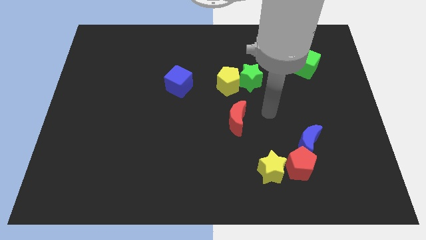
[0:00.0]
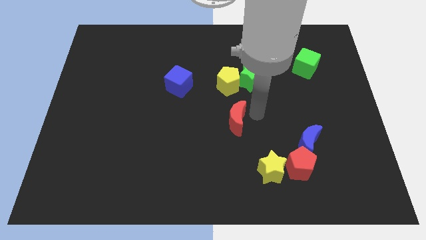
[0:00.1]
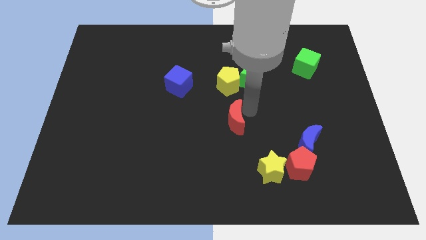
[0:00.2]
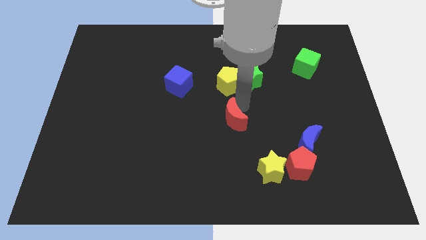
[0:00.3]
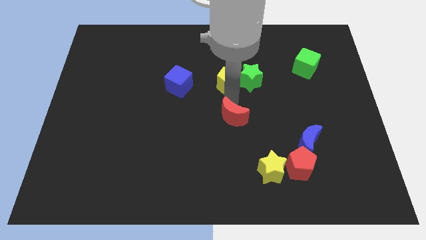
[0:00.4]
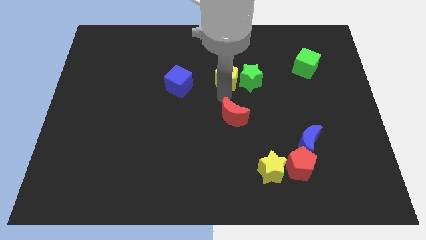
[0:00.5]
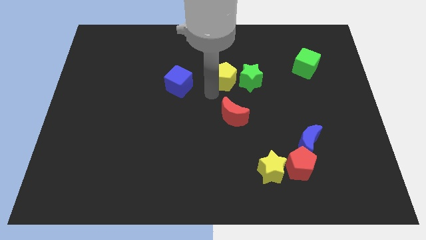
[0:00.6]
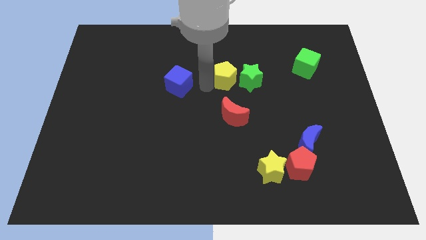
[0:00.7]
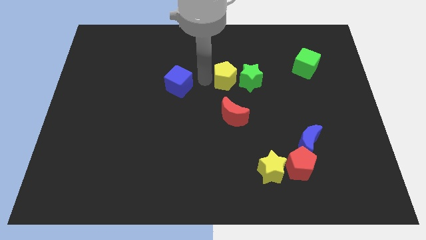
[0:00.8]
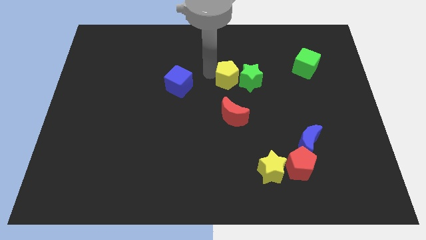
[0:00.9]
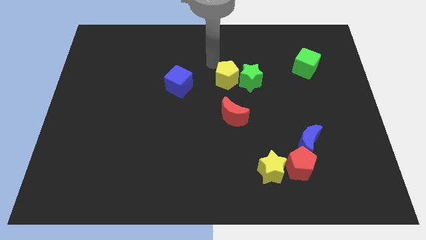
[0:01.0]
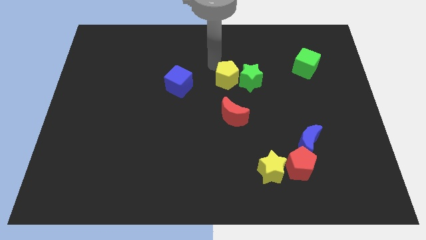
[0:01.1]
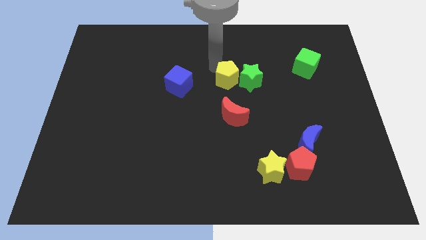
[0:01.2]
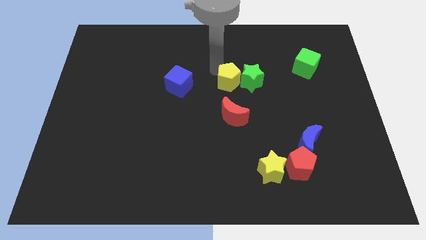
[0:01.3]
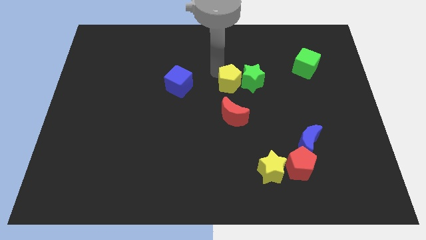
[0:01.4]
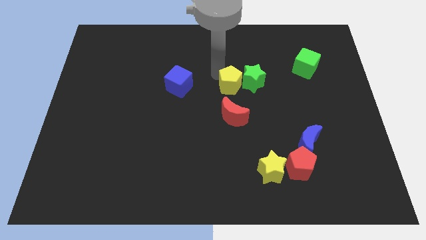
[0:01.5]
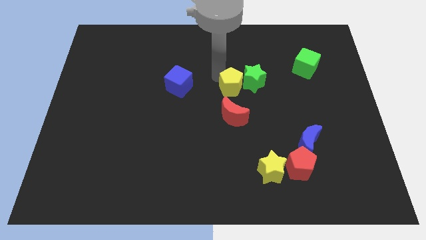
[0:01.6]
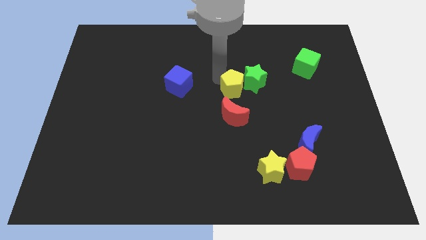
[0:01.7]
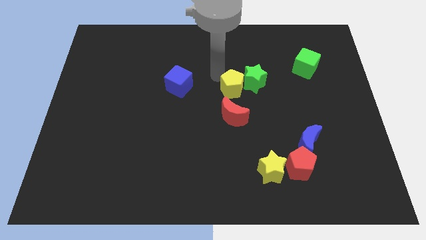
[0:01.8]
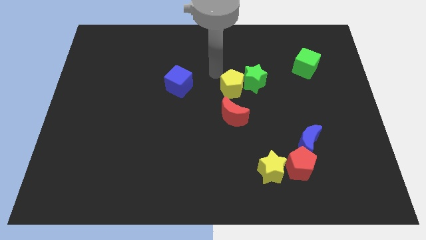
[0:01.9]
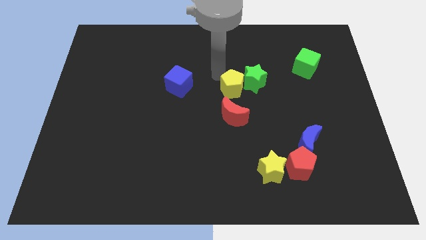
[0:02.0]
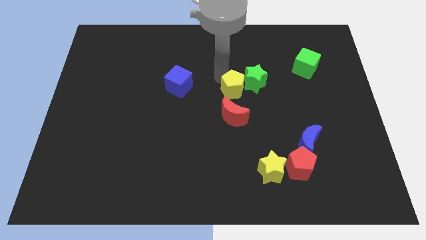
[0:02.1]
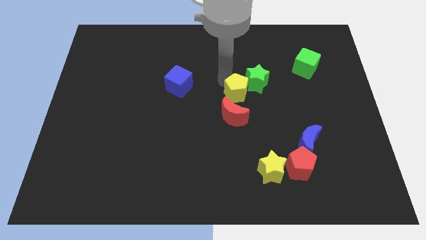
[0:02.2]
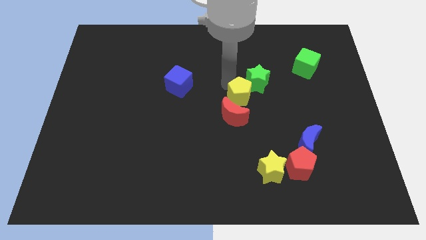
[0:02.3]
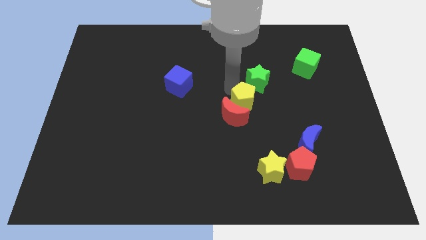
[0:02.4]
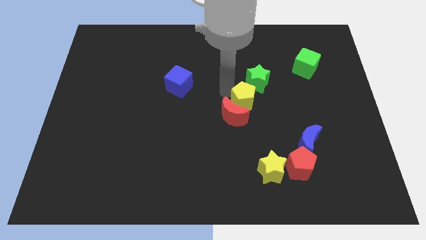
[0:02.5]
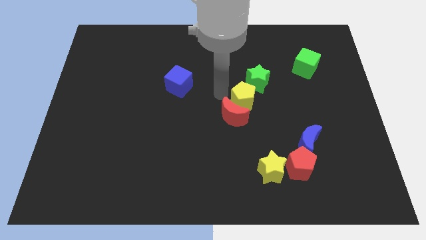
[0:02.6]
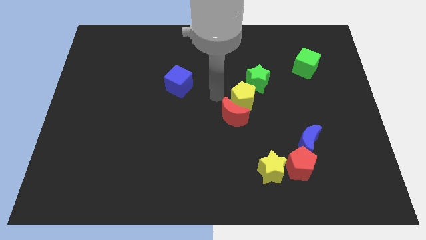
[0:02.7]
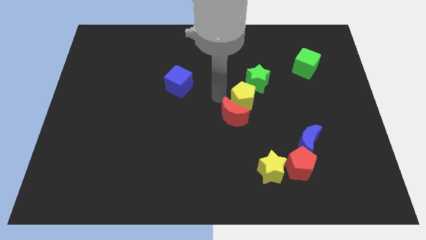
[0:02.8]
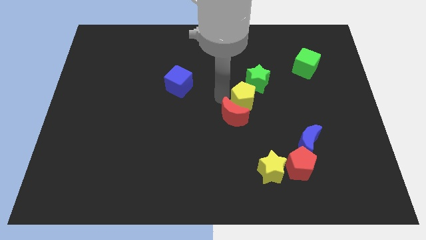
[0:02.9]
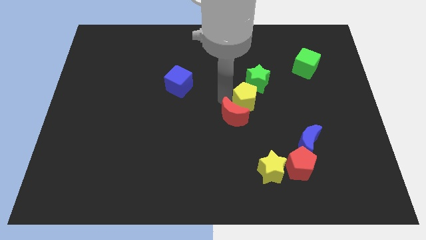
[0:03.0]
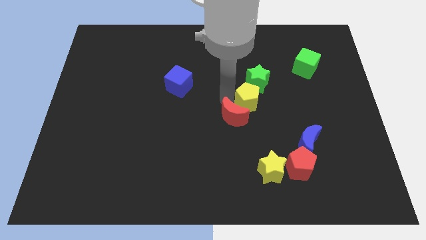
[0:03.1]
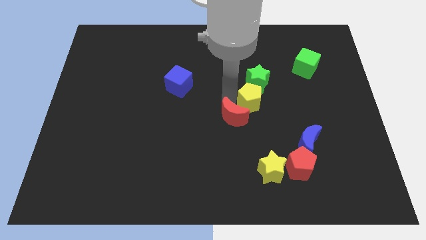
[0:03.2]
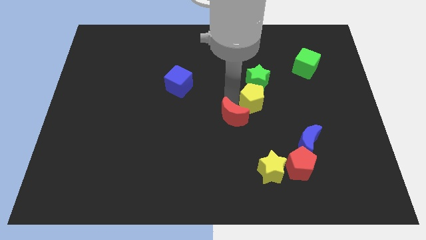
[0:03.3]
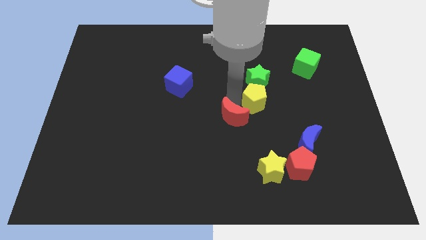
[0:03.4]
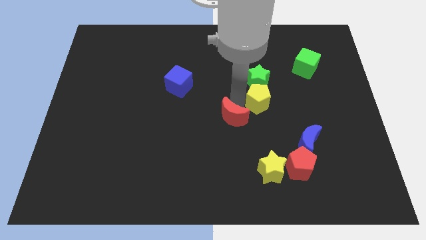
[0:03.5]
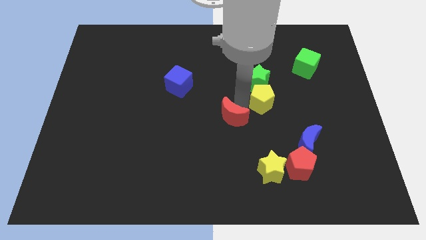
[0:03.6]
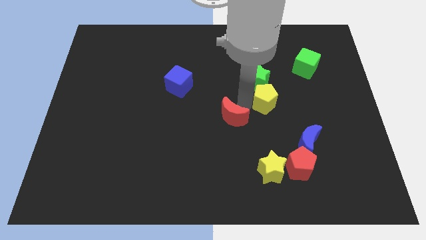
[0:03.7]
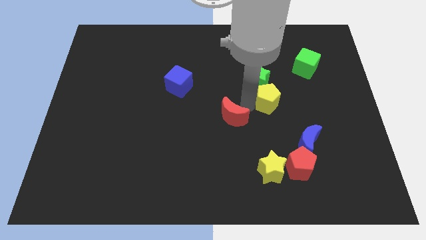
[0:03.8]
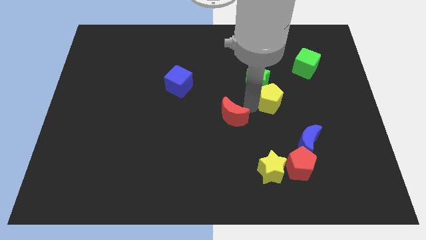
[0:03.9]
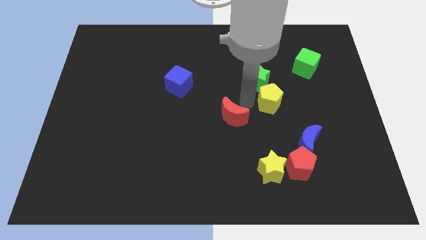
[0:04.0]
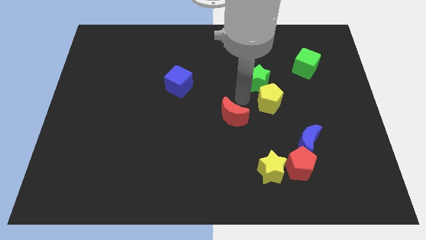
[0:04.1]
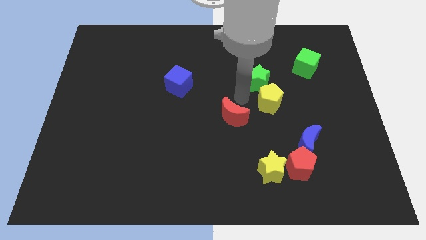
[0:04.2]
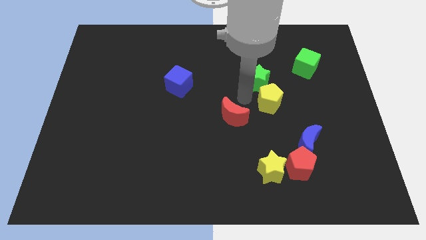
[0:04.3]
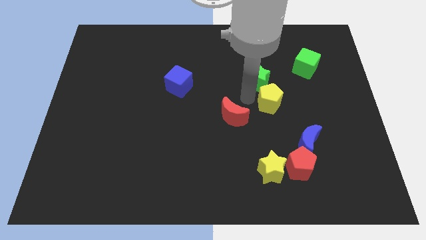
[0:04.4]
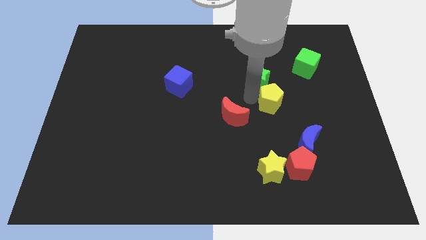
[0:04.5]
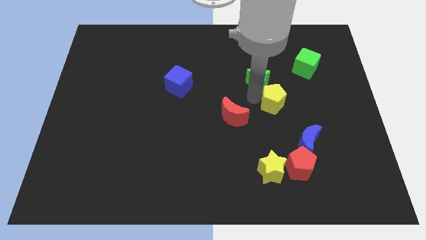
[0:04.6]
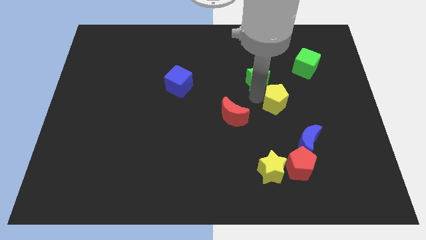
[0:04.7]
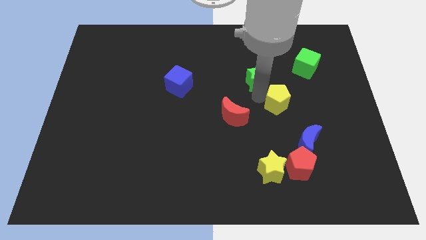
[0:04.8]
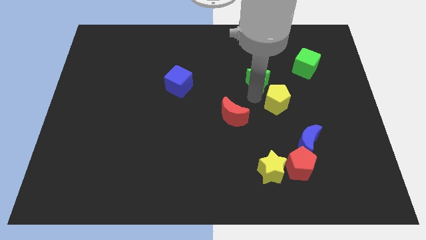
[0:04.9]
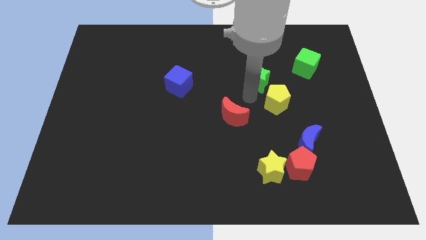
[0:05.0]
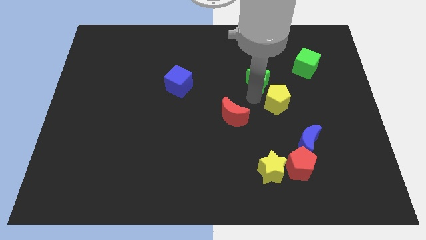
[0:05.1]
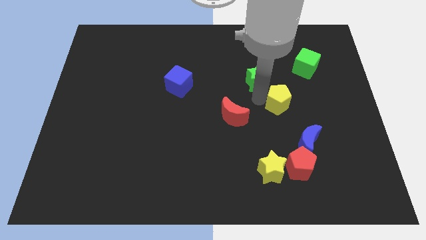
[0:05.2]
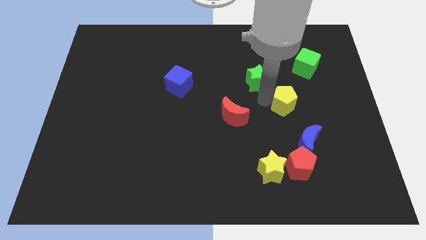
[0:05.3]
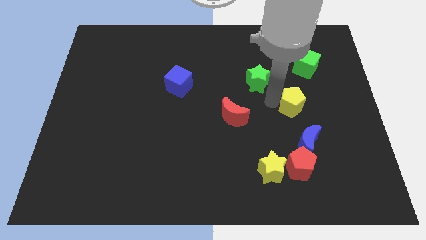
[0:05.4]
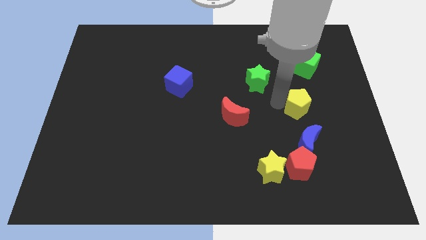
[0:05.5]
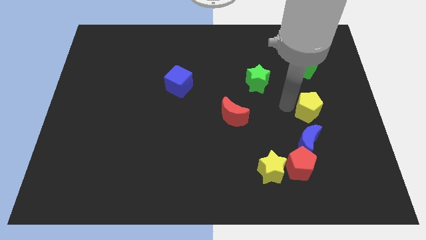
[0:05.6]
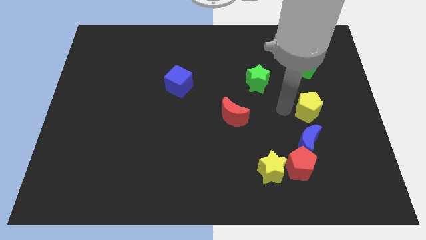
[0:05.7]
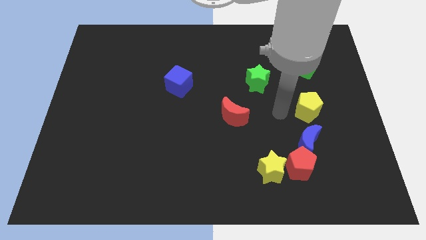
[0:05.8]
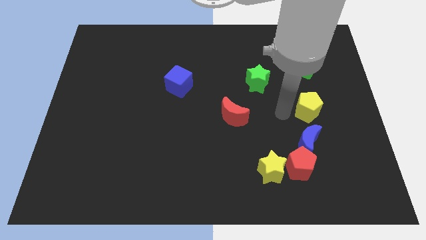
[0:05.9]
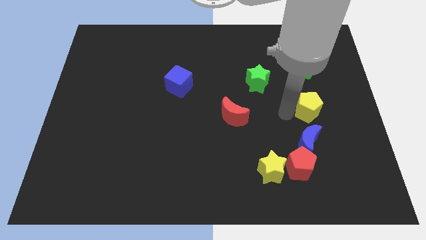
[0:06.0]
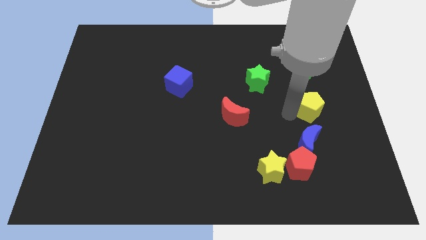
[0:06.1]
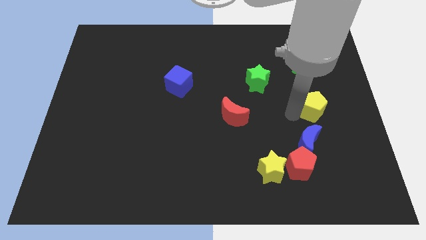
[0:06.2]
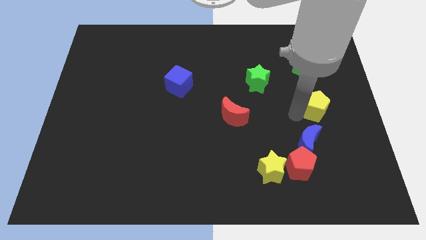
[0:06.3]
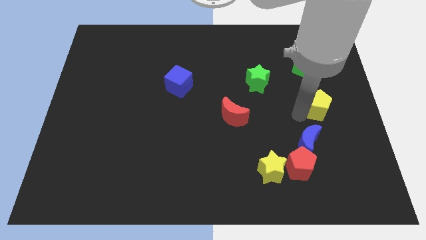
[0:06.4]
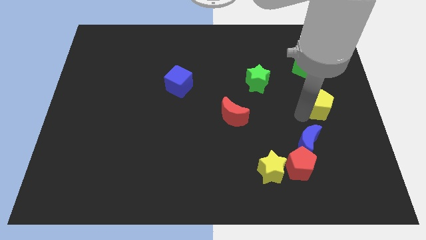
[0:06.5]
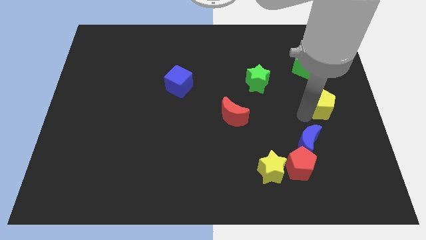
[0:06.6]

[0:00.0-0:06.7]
push the yellow pentagon to the right side of the board

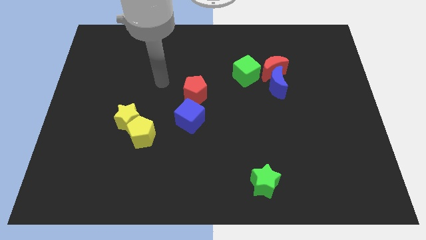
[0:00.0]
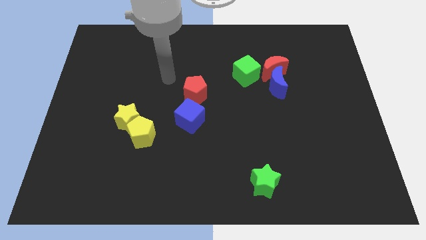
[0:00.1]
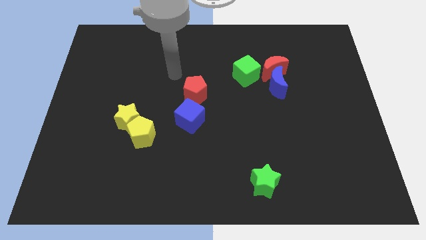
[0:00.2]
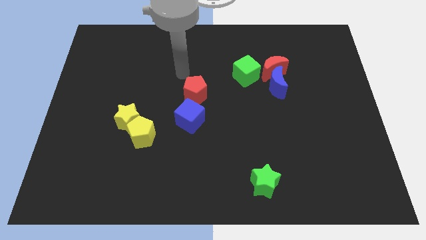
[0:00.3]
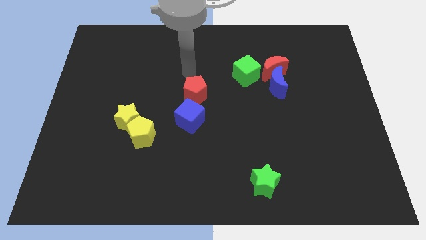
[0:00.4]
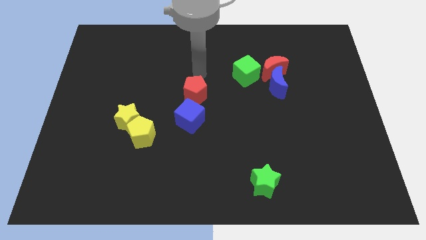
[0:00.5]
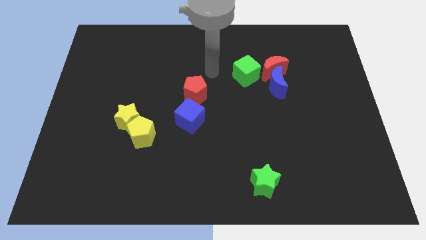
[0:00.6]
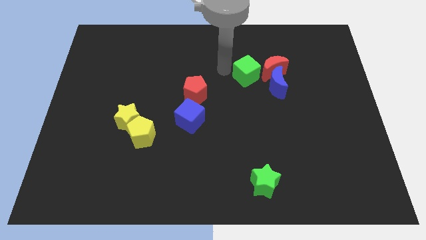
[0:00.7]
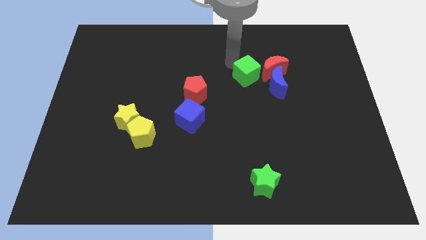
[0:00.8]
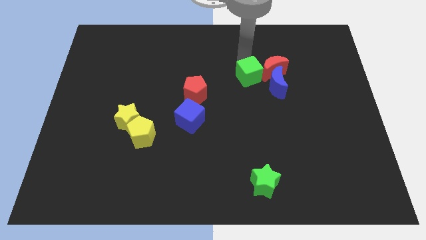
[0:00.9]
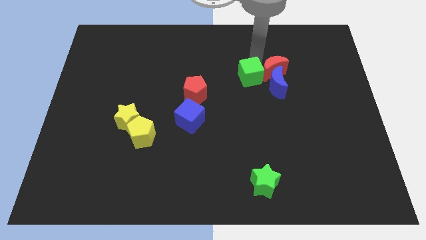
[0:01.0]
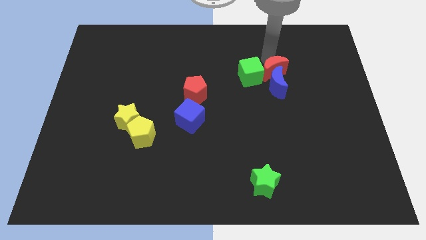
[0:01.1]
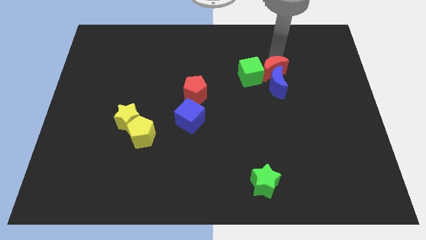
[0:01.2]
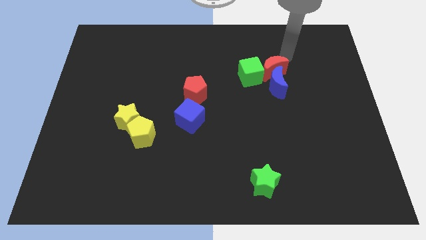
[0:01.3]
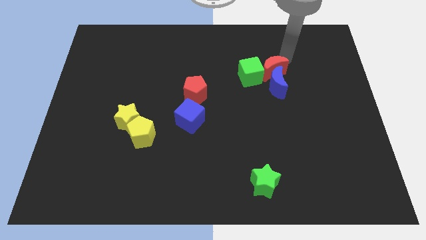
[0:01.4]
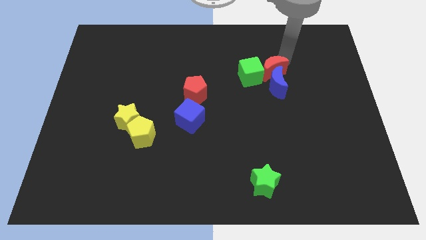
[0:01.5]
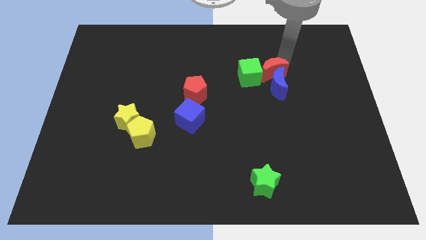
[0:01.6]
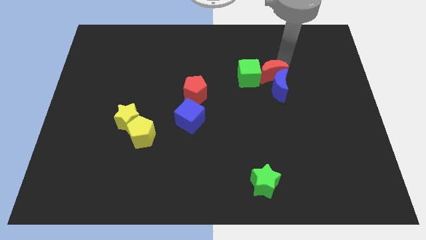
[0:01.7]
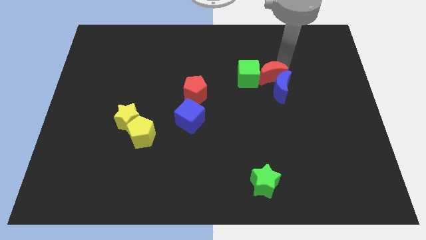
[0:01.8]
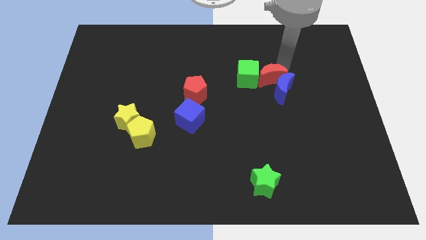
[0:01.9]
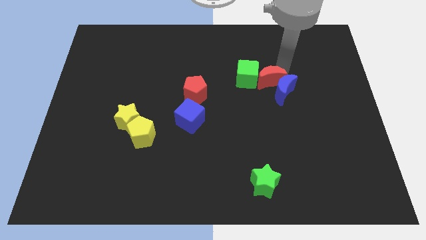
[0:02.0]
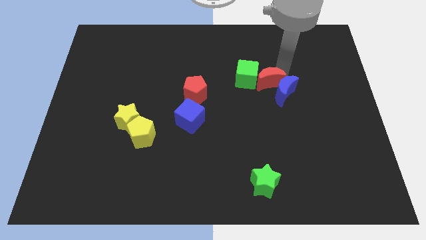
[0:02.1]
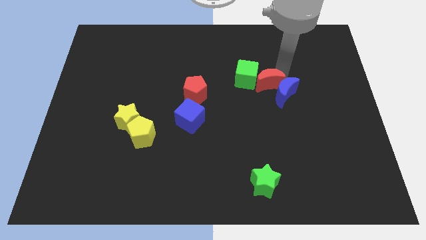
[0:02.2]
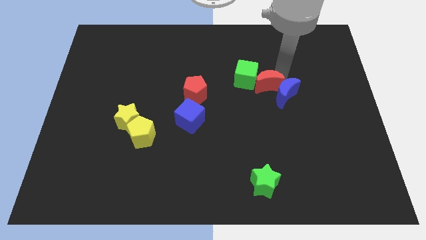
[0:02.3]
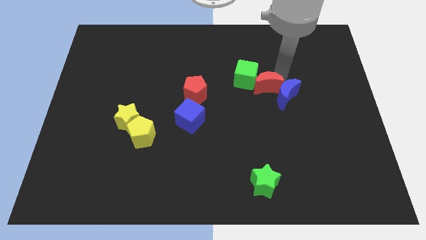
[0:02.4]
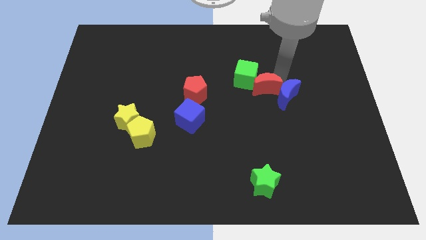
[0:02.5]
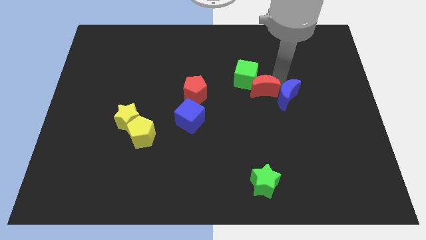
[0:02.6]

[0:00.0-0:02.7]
put the red moon to the center
